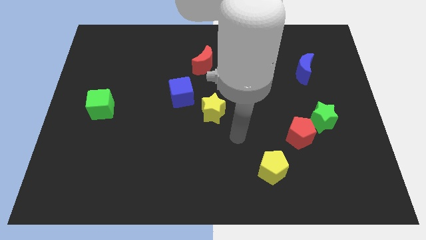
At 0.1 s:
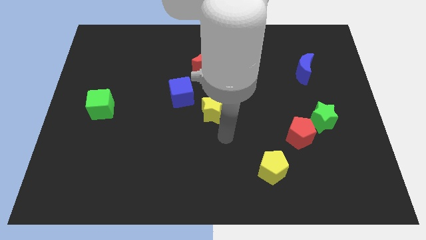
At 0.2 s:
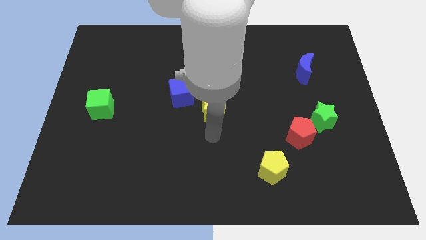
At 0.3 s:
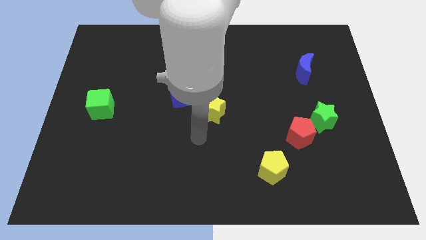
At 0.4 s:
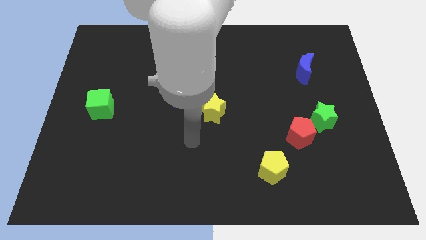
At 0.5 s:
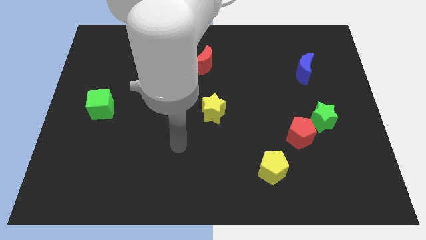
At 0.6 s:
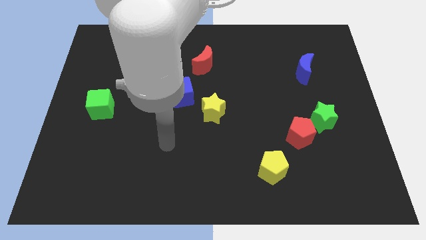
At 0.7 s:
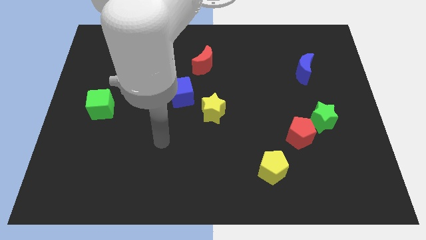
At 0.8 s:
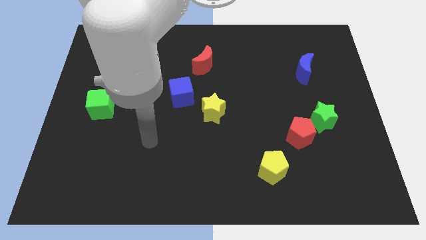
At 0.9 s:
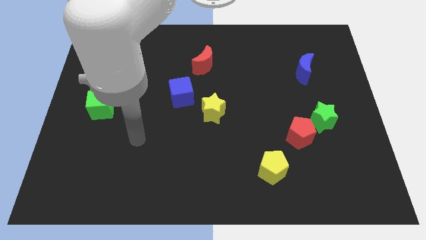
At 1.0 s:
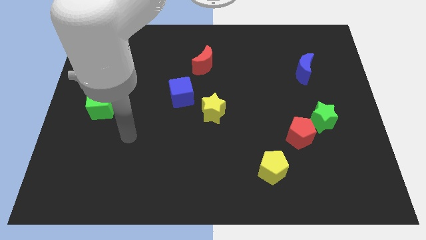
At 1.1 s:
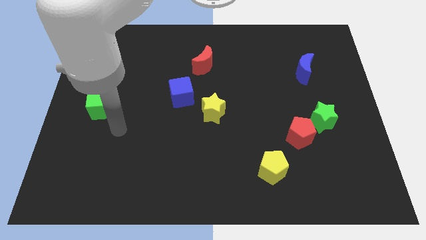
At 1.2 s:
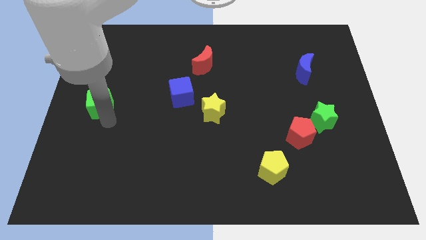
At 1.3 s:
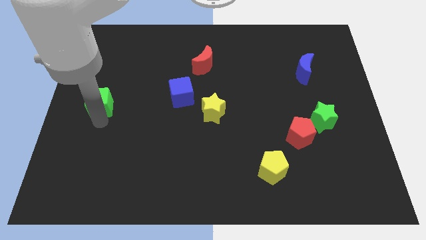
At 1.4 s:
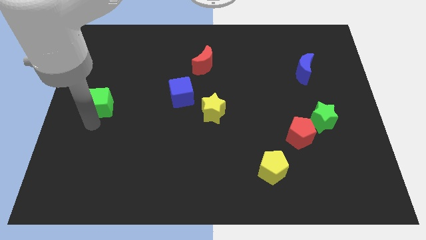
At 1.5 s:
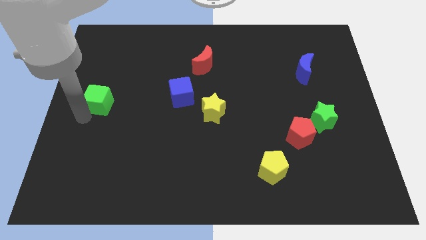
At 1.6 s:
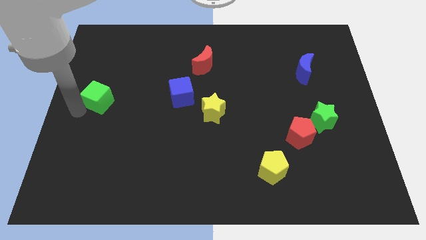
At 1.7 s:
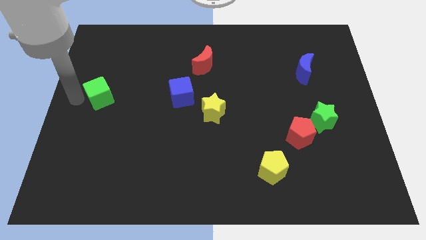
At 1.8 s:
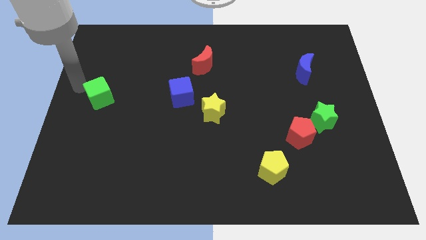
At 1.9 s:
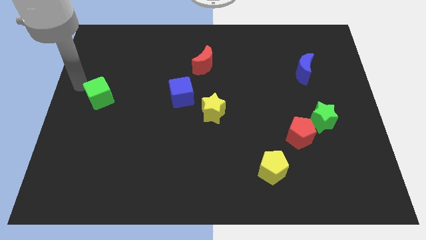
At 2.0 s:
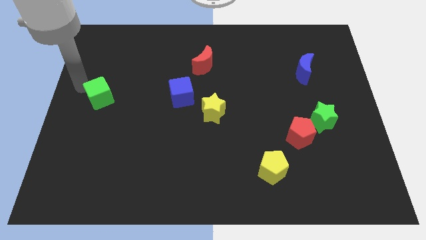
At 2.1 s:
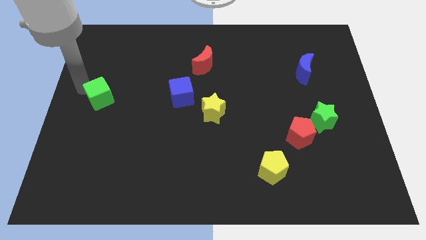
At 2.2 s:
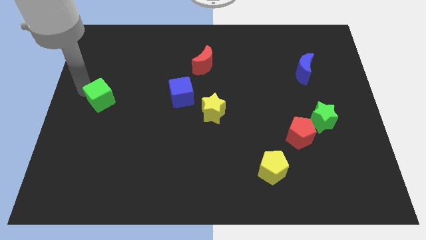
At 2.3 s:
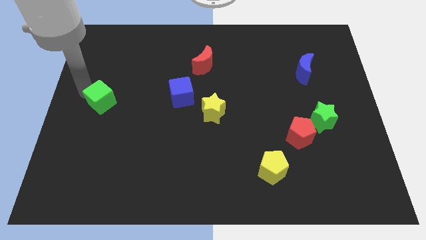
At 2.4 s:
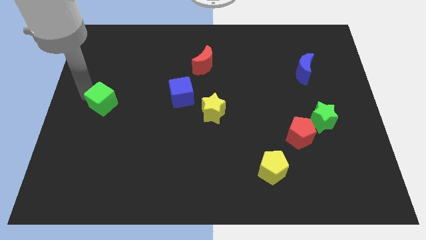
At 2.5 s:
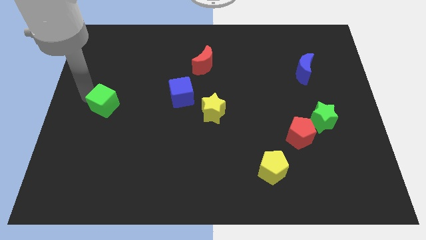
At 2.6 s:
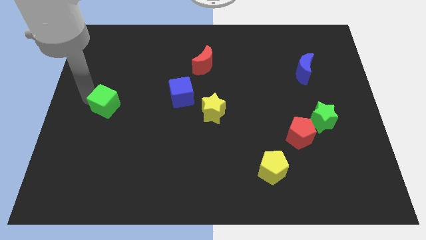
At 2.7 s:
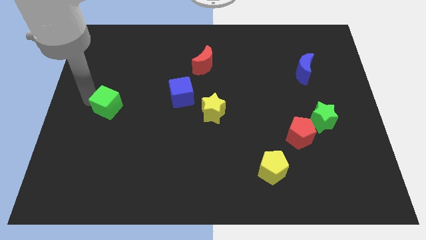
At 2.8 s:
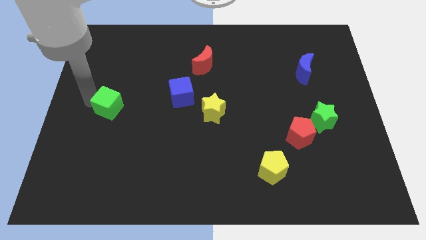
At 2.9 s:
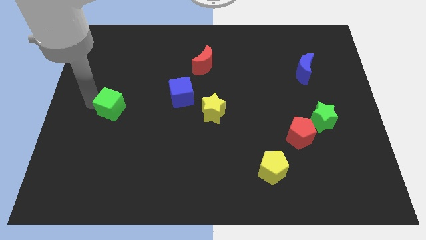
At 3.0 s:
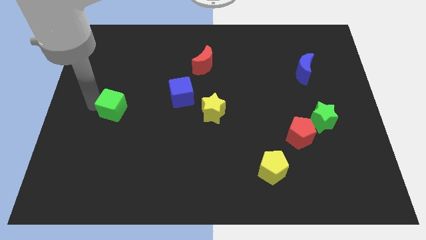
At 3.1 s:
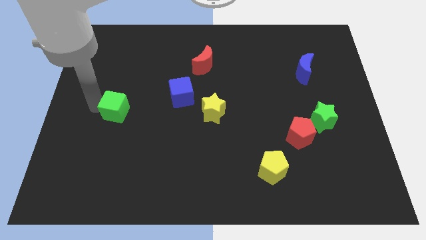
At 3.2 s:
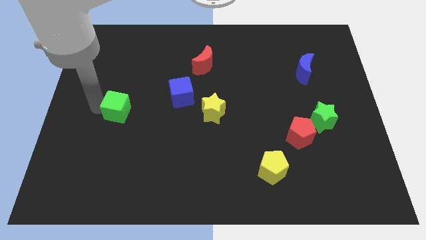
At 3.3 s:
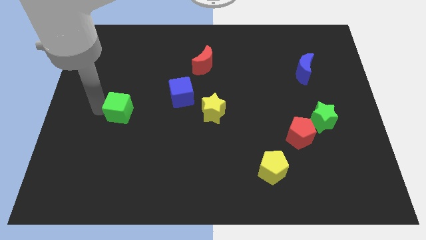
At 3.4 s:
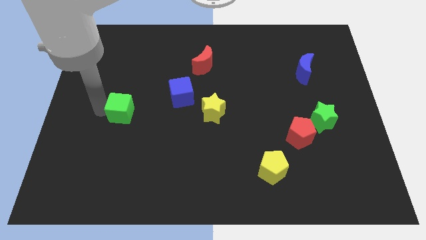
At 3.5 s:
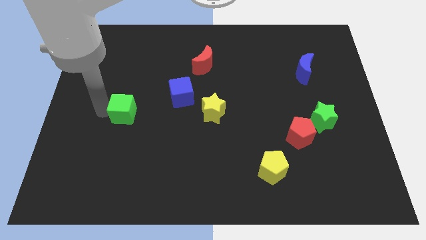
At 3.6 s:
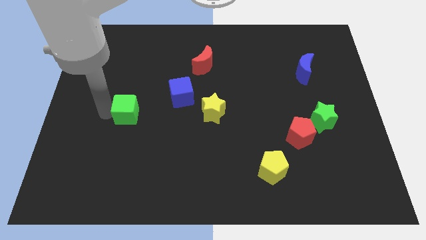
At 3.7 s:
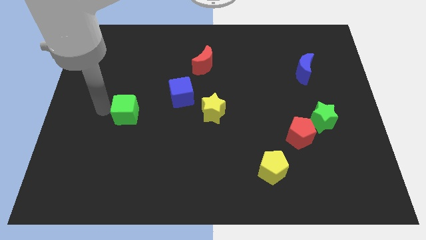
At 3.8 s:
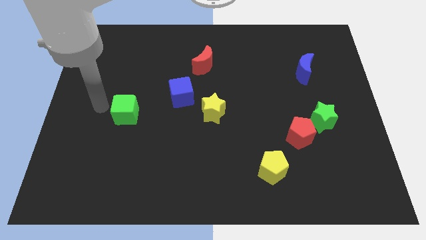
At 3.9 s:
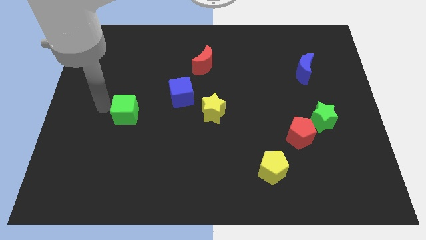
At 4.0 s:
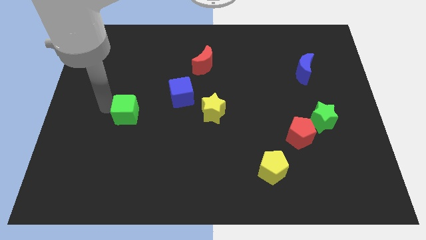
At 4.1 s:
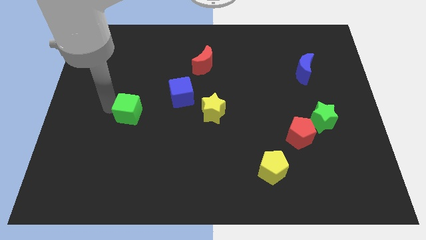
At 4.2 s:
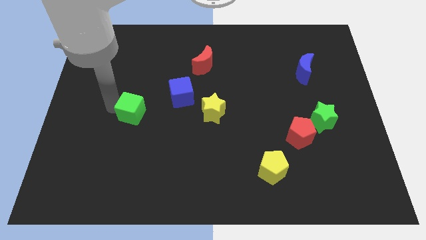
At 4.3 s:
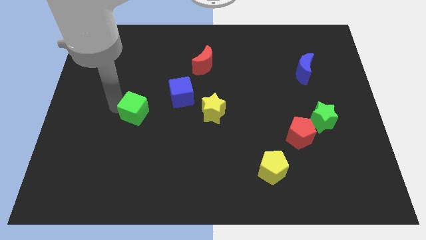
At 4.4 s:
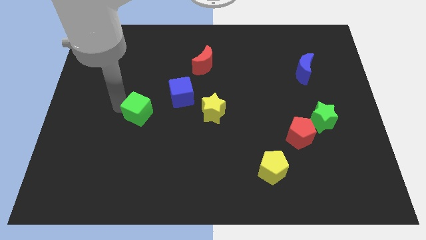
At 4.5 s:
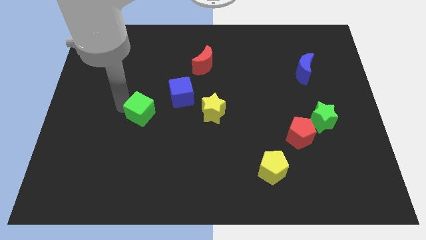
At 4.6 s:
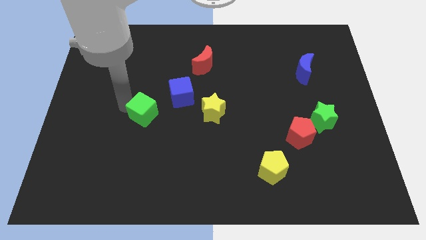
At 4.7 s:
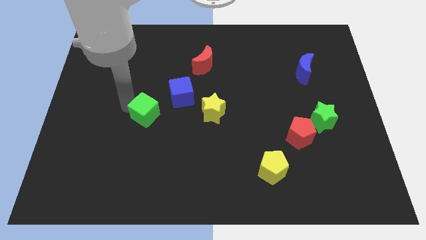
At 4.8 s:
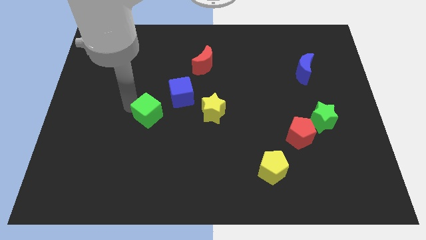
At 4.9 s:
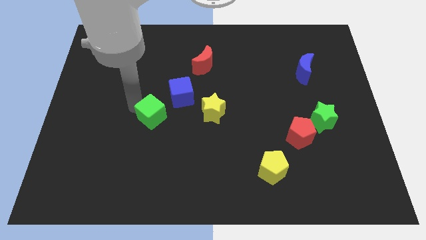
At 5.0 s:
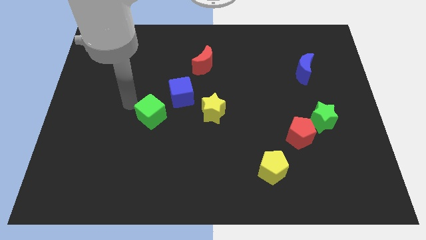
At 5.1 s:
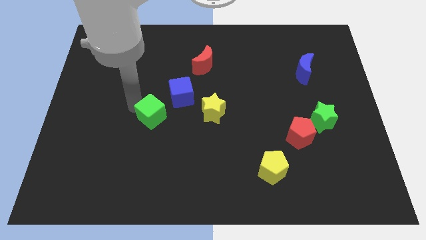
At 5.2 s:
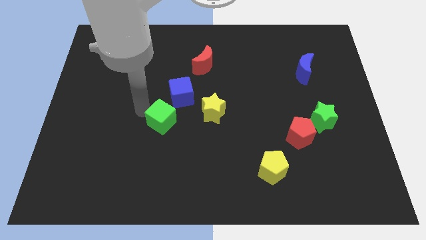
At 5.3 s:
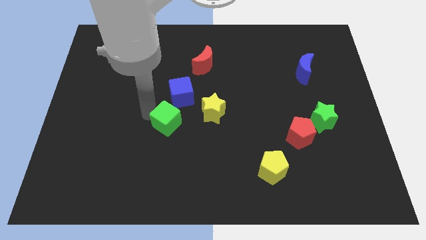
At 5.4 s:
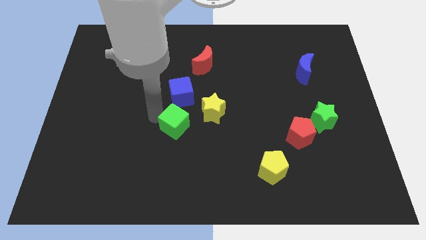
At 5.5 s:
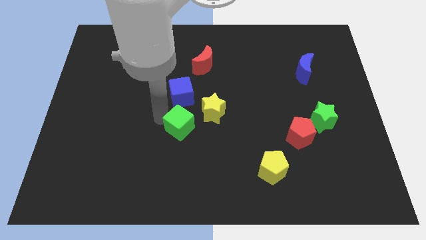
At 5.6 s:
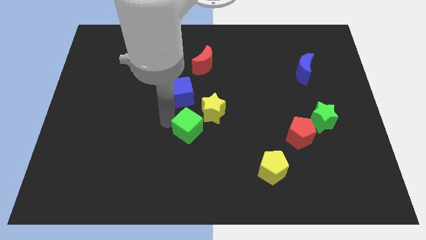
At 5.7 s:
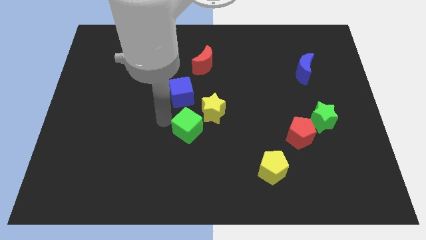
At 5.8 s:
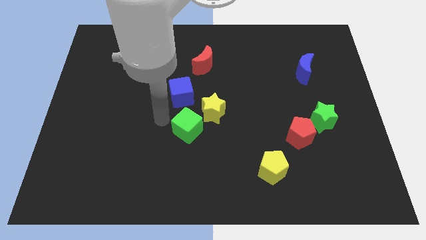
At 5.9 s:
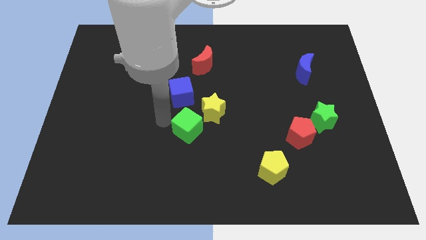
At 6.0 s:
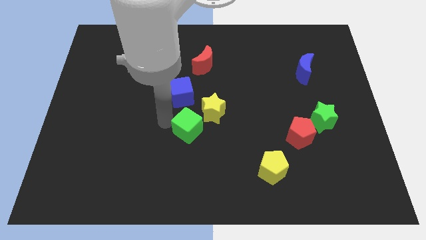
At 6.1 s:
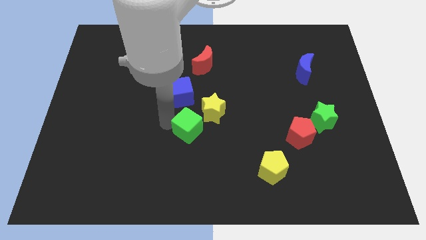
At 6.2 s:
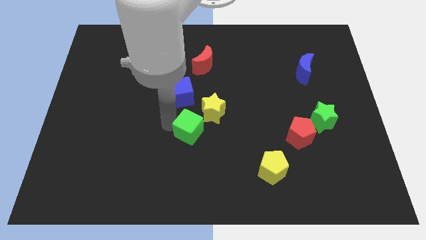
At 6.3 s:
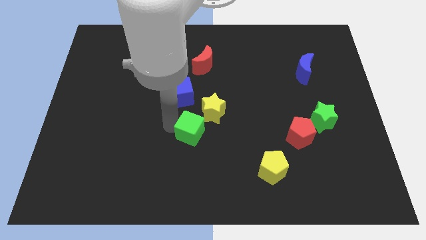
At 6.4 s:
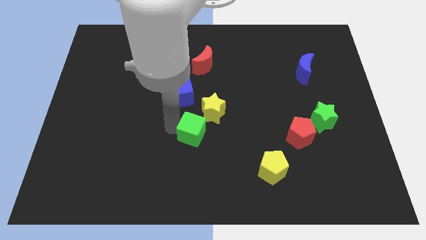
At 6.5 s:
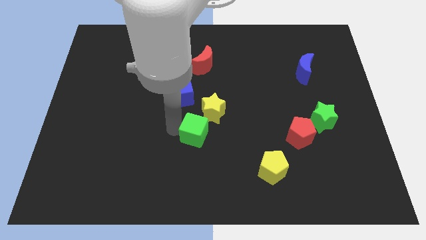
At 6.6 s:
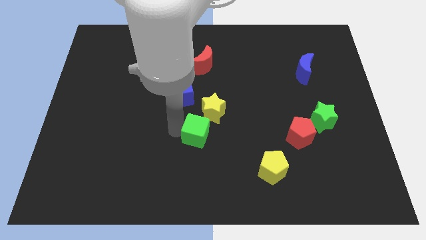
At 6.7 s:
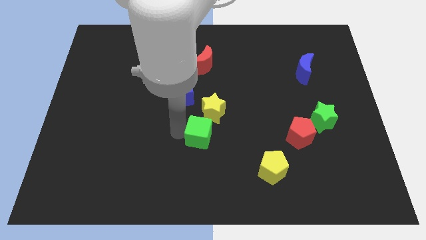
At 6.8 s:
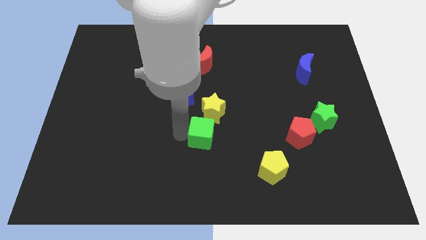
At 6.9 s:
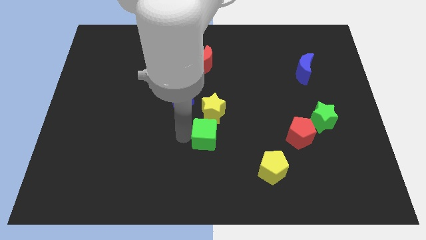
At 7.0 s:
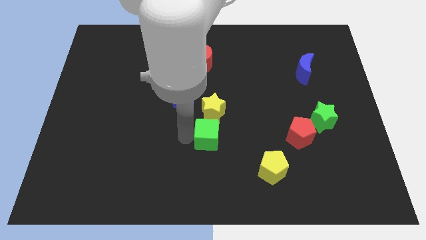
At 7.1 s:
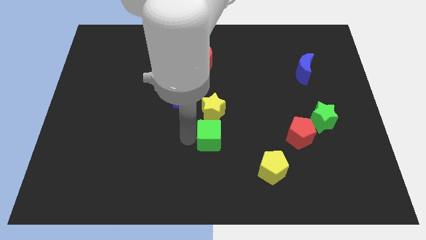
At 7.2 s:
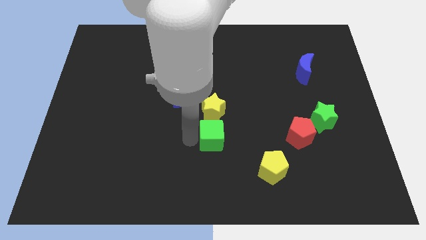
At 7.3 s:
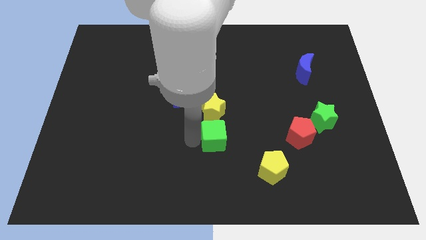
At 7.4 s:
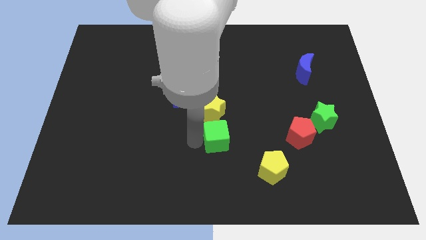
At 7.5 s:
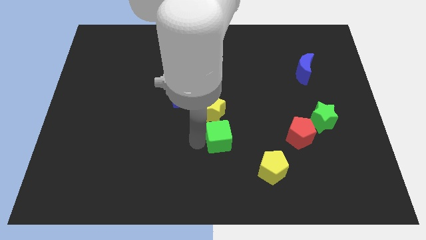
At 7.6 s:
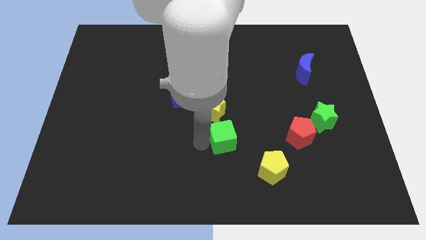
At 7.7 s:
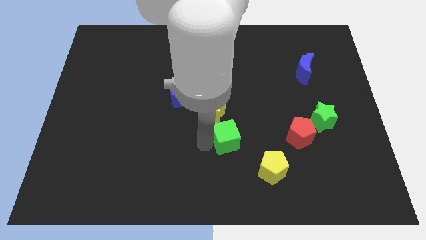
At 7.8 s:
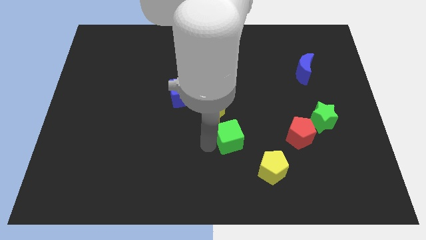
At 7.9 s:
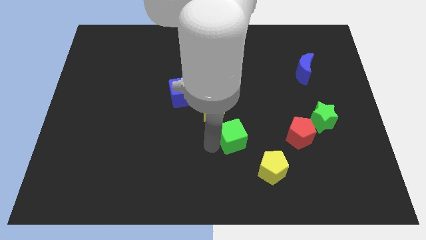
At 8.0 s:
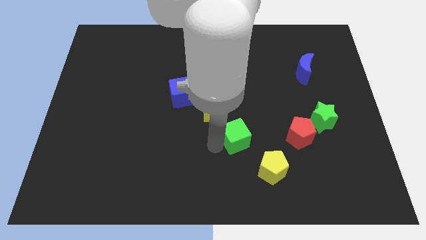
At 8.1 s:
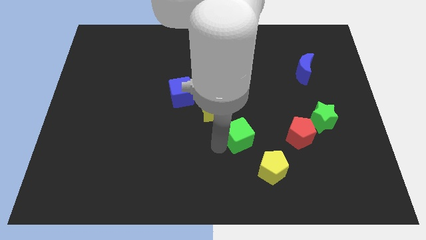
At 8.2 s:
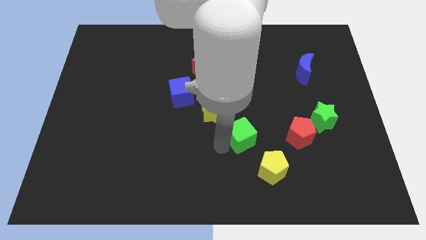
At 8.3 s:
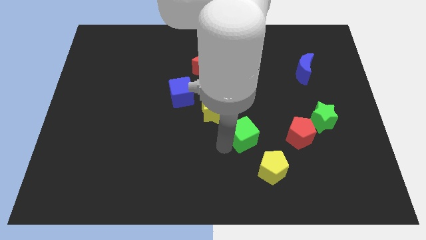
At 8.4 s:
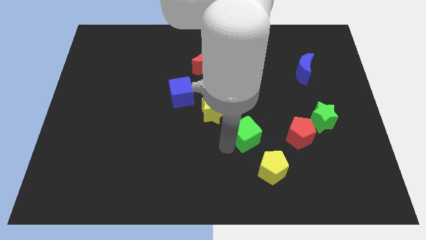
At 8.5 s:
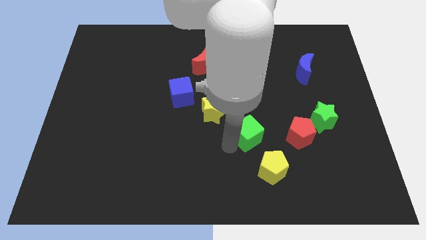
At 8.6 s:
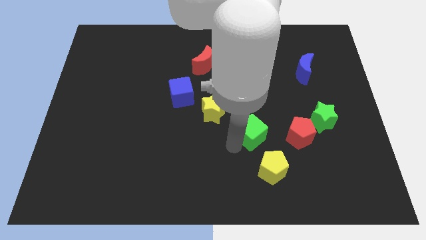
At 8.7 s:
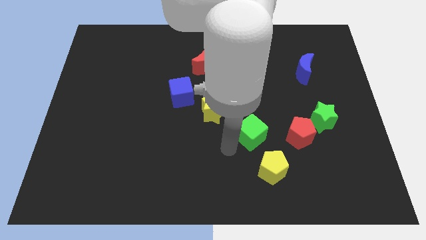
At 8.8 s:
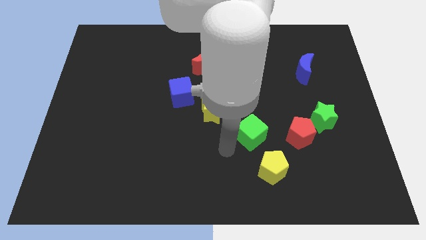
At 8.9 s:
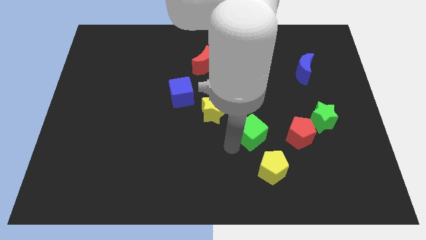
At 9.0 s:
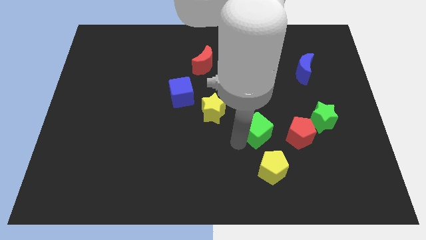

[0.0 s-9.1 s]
move the green cube left of the green star
